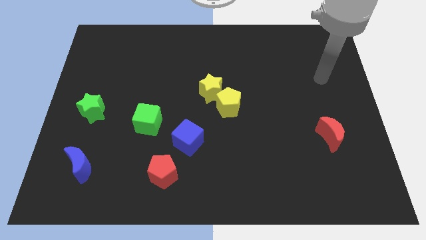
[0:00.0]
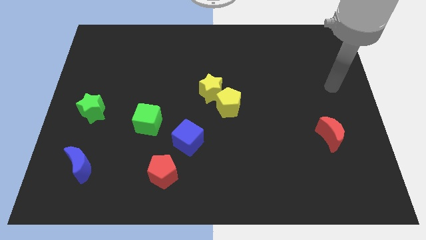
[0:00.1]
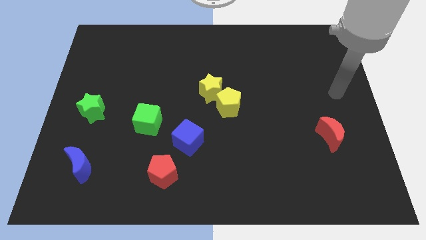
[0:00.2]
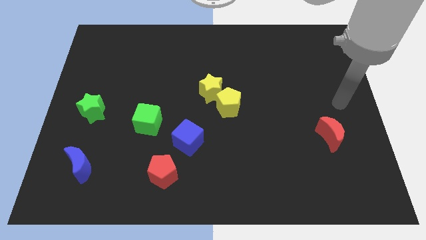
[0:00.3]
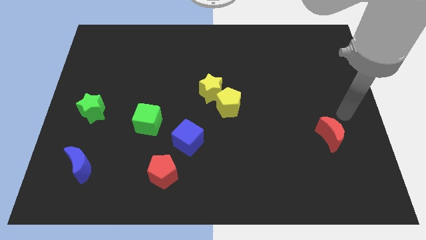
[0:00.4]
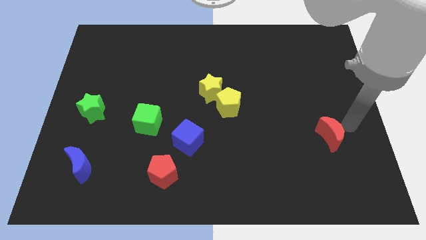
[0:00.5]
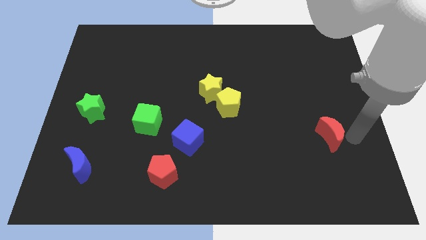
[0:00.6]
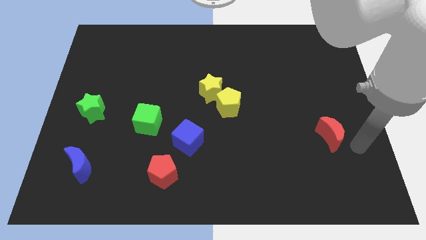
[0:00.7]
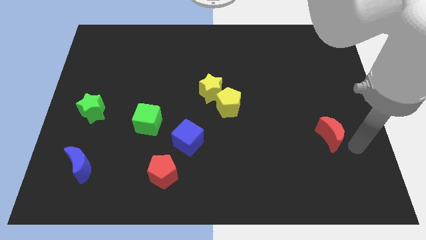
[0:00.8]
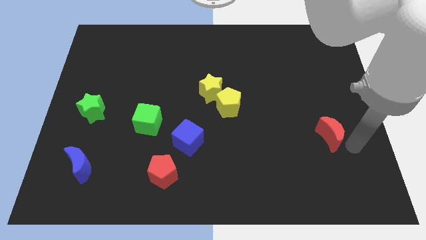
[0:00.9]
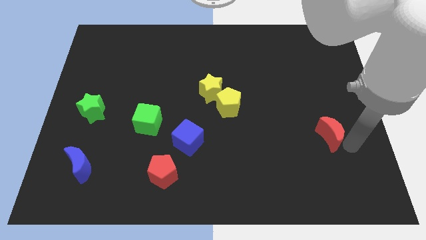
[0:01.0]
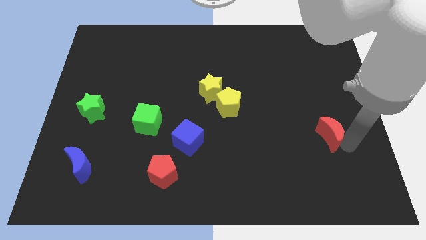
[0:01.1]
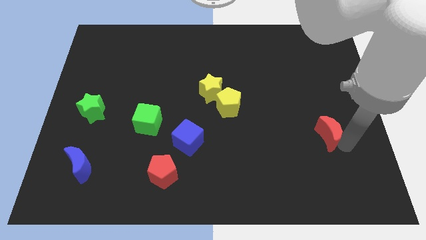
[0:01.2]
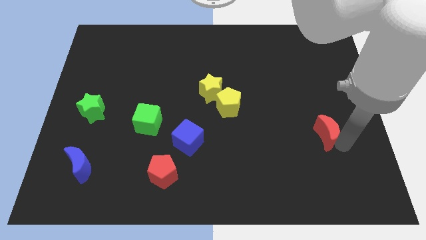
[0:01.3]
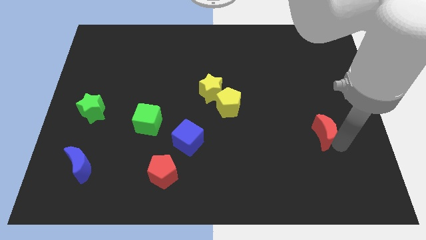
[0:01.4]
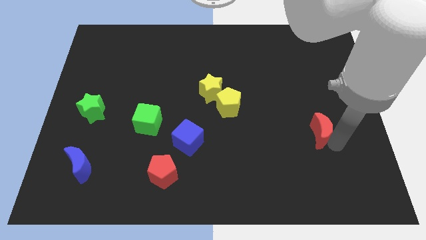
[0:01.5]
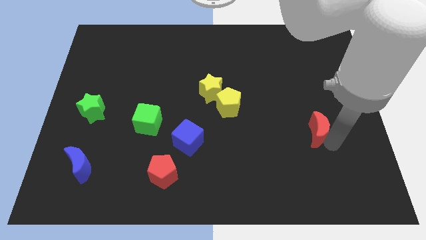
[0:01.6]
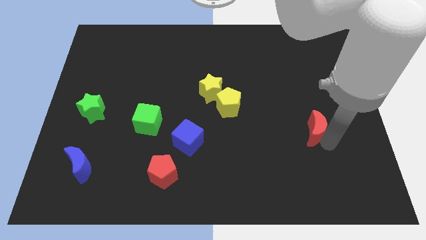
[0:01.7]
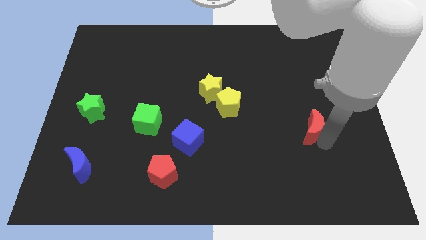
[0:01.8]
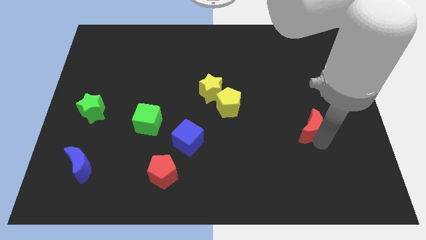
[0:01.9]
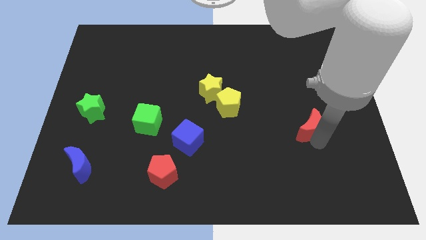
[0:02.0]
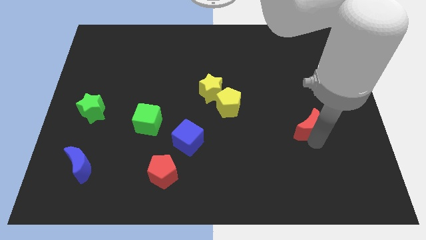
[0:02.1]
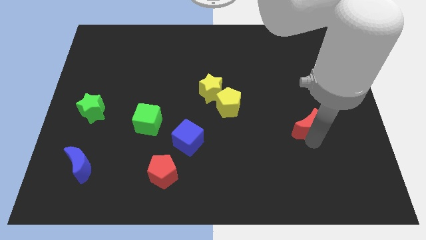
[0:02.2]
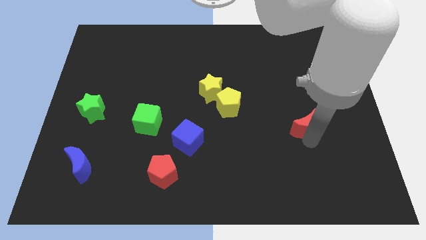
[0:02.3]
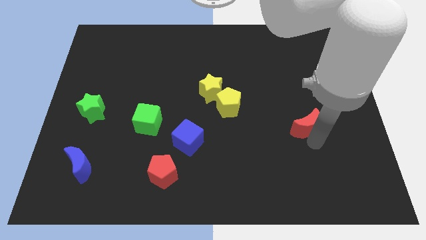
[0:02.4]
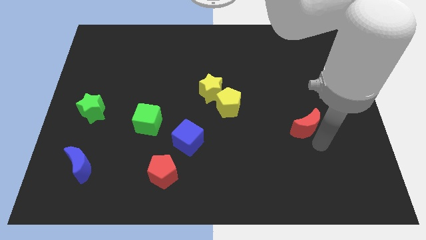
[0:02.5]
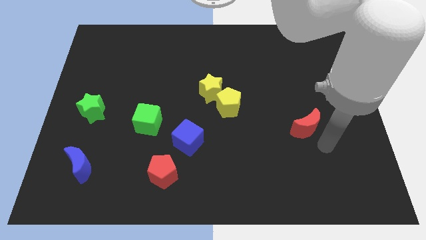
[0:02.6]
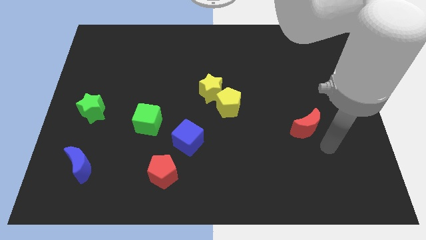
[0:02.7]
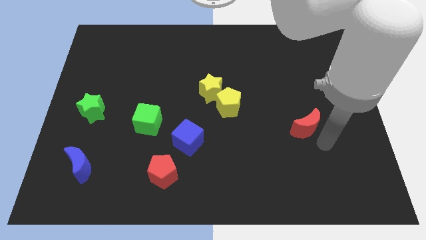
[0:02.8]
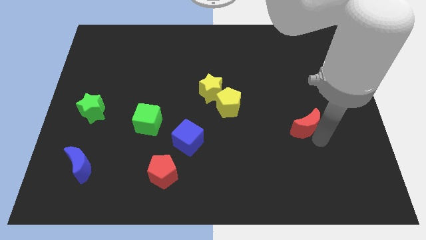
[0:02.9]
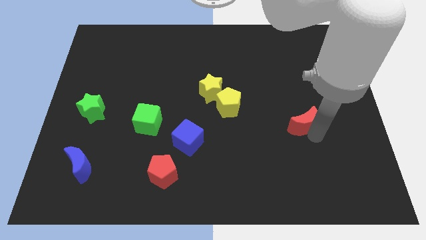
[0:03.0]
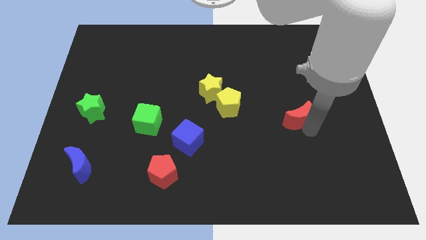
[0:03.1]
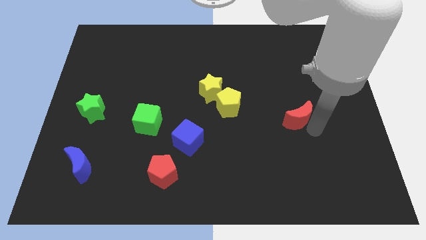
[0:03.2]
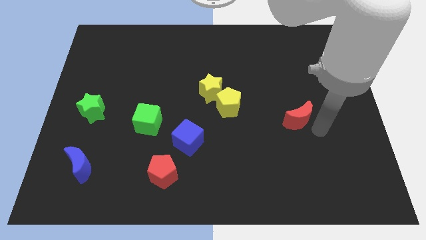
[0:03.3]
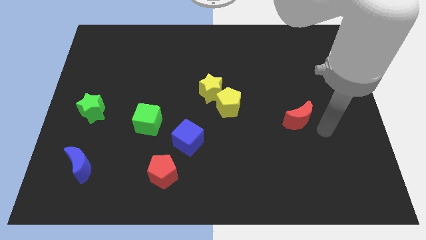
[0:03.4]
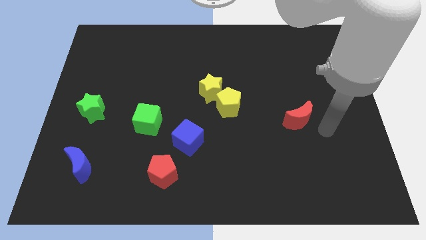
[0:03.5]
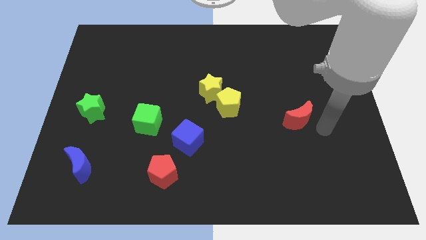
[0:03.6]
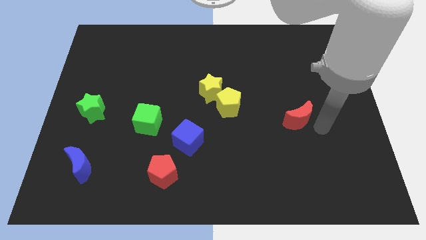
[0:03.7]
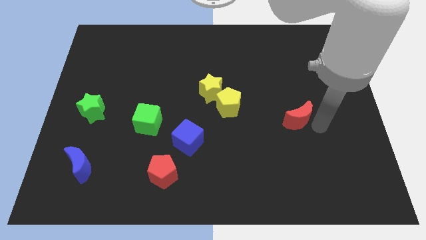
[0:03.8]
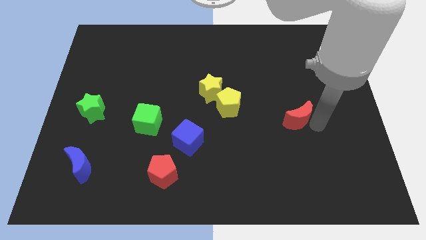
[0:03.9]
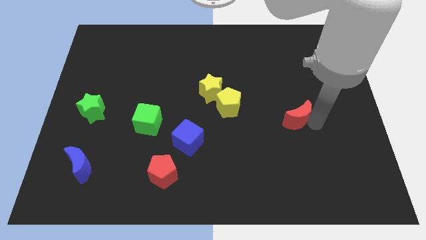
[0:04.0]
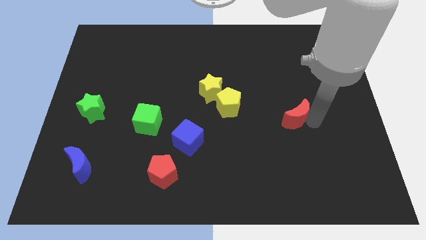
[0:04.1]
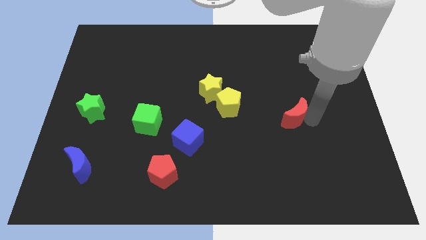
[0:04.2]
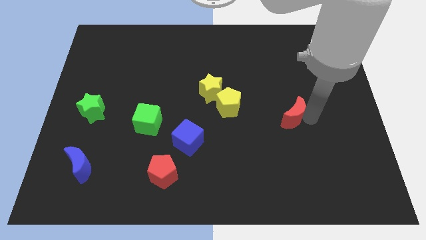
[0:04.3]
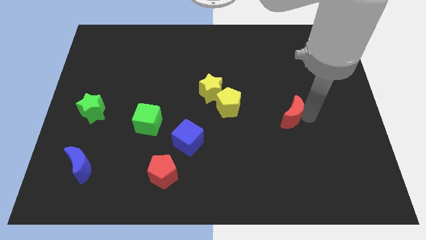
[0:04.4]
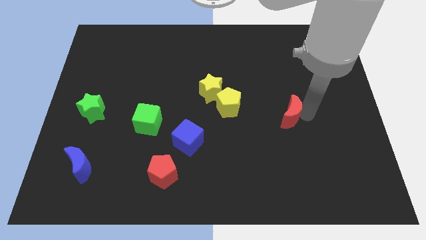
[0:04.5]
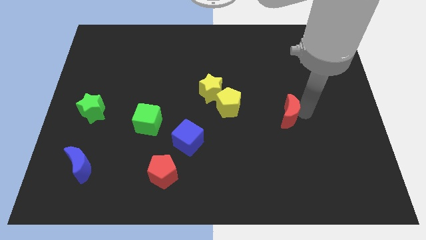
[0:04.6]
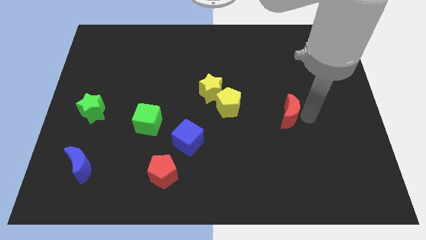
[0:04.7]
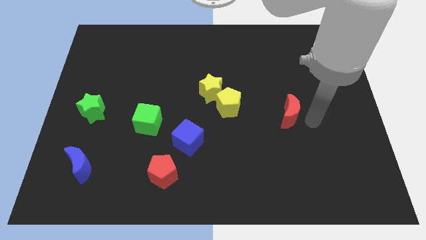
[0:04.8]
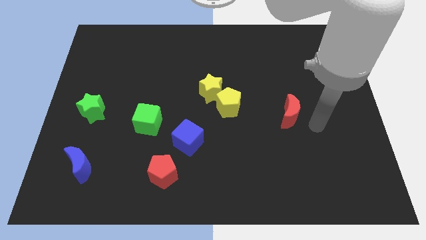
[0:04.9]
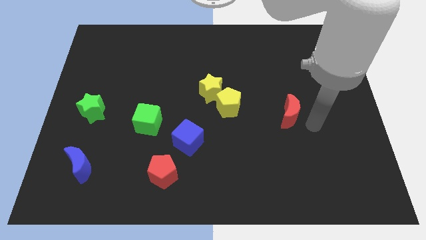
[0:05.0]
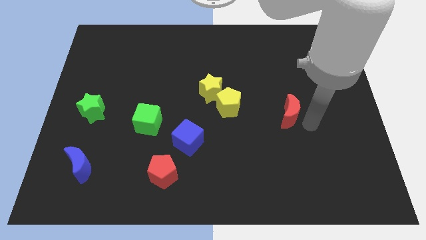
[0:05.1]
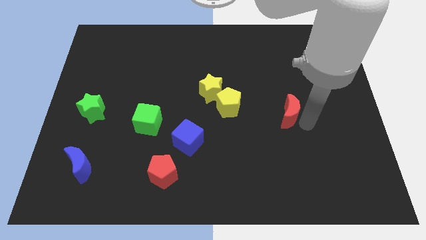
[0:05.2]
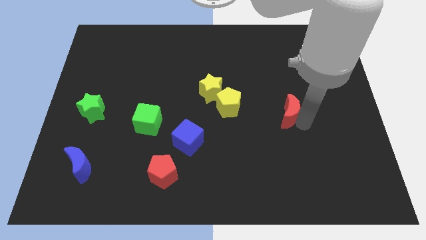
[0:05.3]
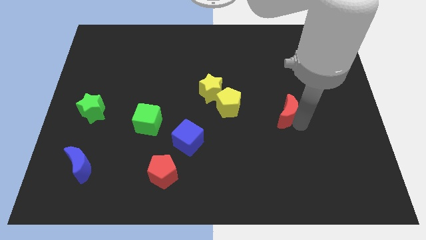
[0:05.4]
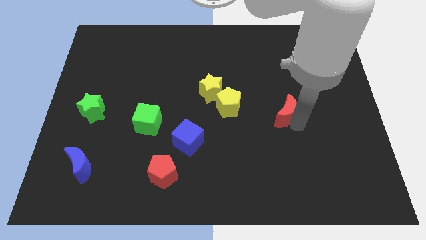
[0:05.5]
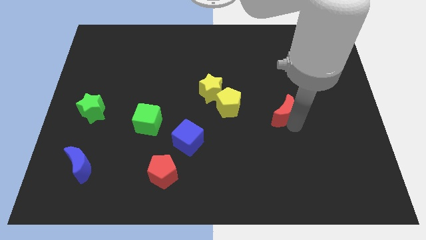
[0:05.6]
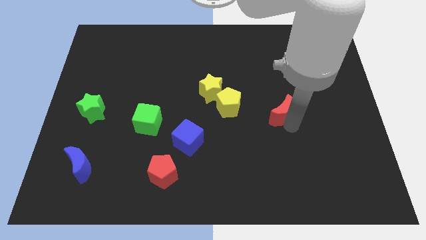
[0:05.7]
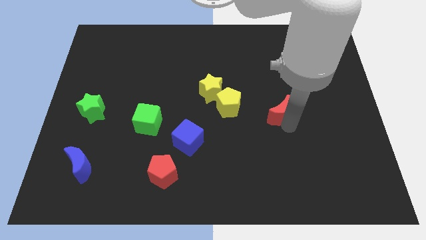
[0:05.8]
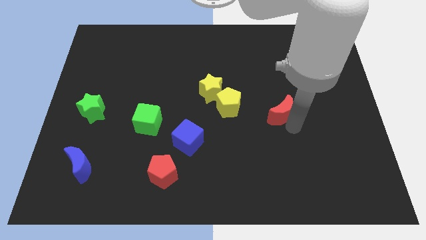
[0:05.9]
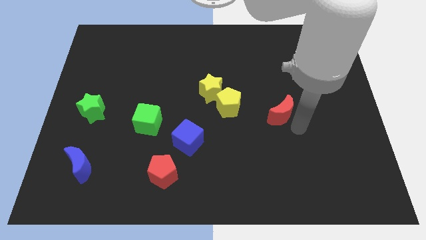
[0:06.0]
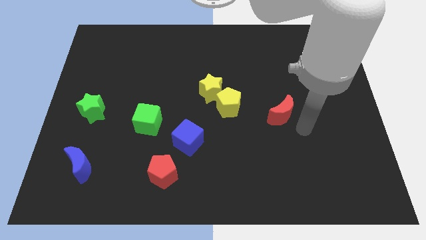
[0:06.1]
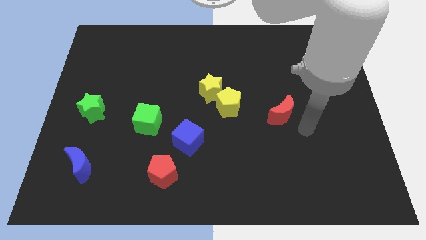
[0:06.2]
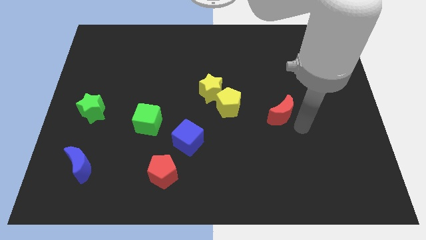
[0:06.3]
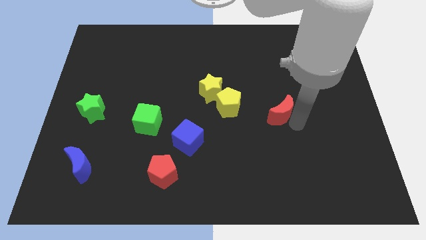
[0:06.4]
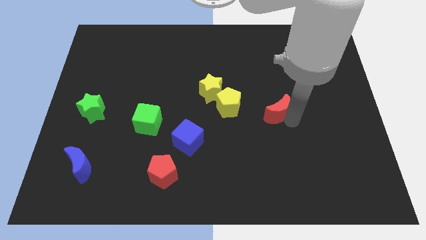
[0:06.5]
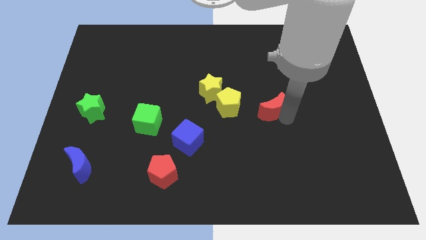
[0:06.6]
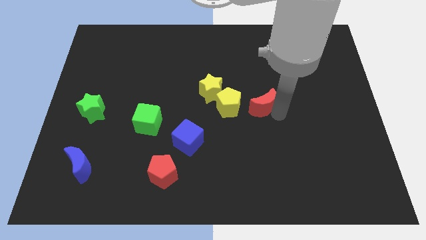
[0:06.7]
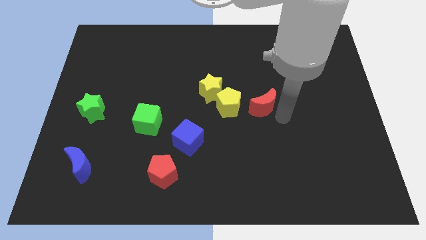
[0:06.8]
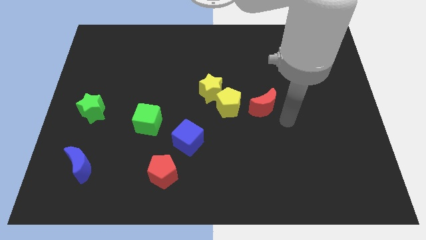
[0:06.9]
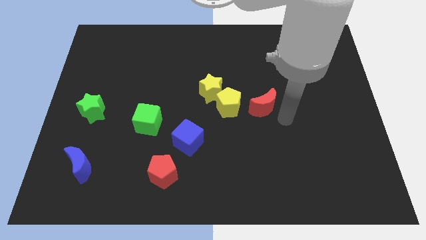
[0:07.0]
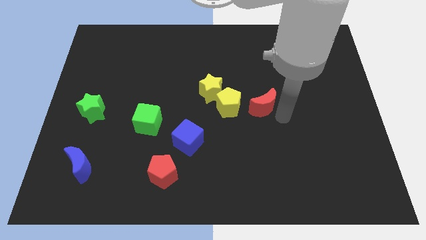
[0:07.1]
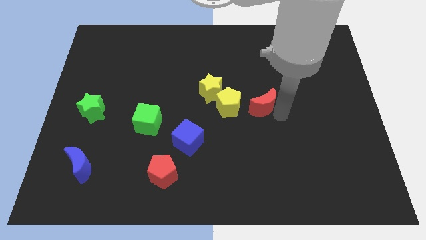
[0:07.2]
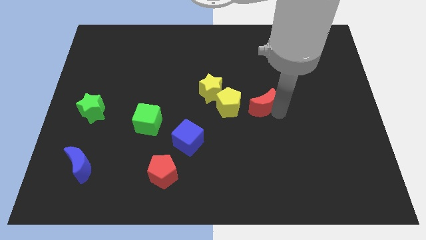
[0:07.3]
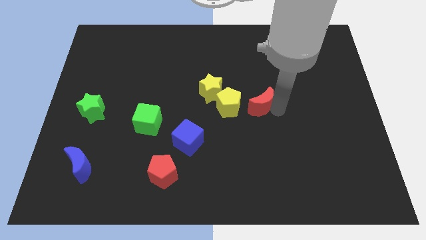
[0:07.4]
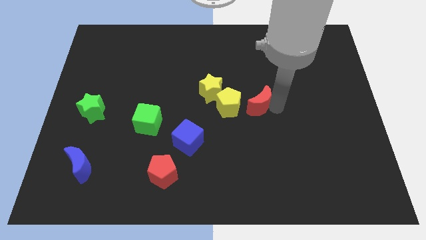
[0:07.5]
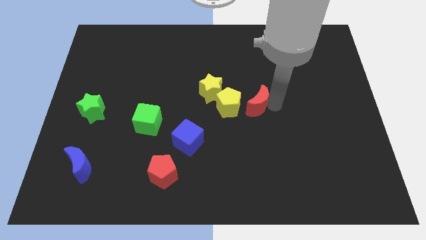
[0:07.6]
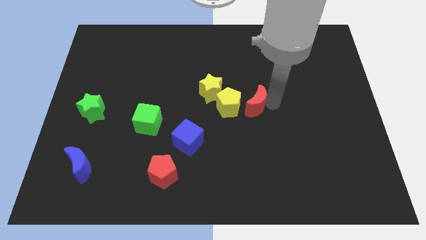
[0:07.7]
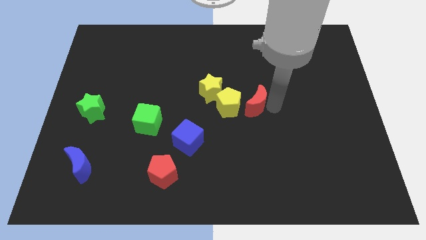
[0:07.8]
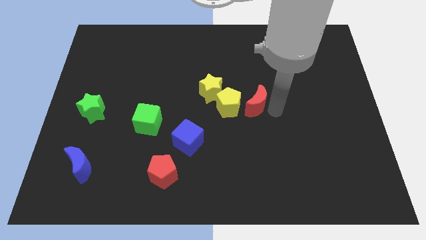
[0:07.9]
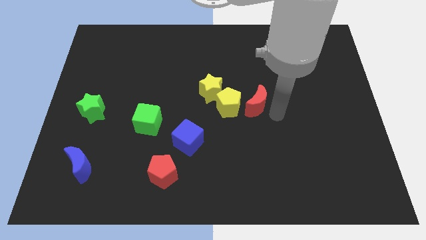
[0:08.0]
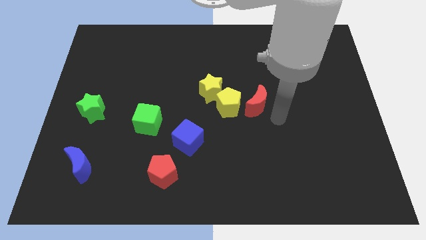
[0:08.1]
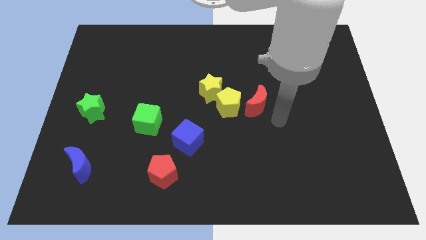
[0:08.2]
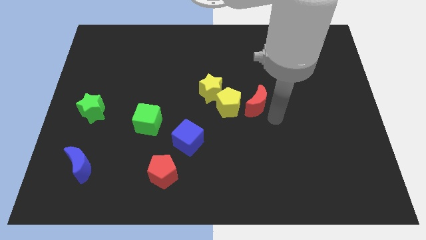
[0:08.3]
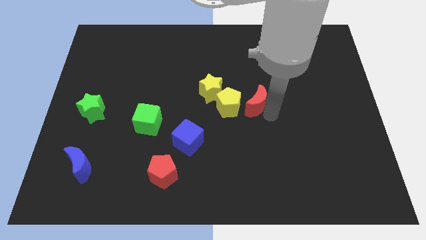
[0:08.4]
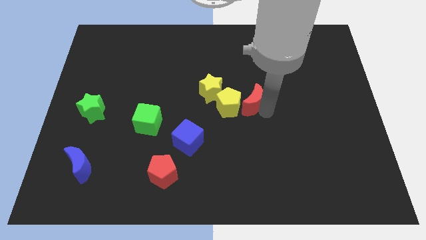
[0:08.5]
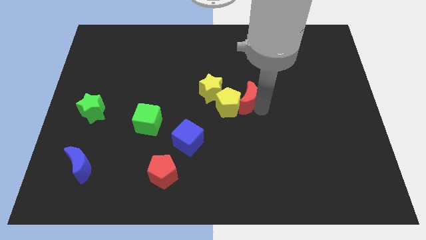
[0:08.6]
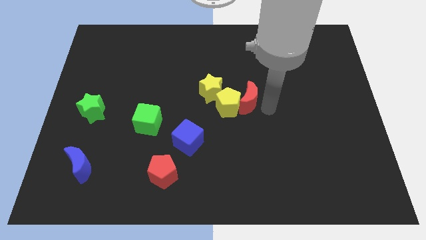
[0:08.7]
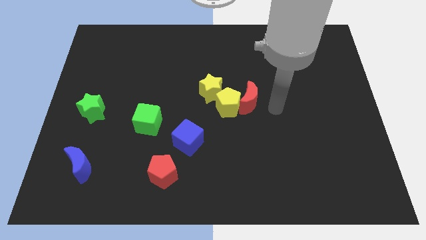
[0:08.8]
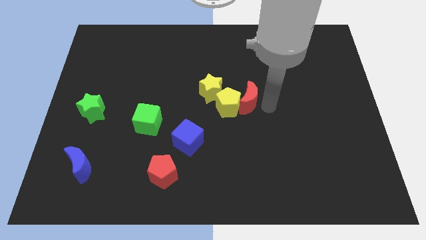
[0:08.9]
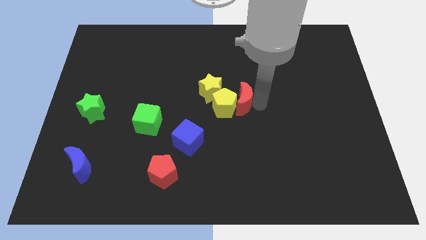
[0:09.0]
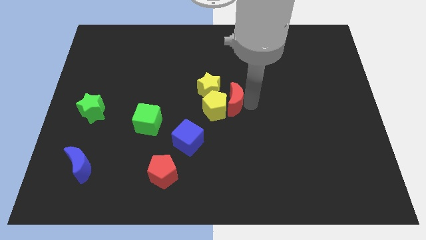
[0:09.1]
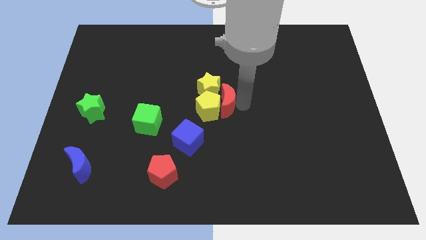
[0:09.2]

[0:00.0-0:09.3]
move the red moon close to the yellow star
